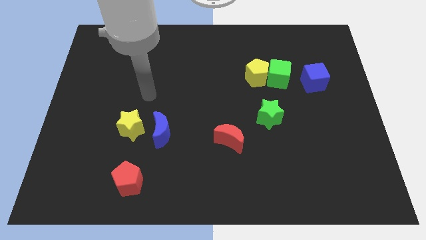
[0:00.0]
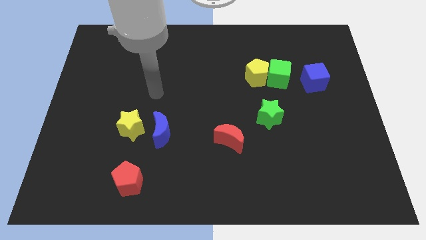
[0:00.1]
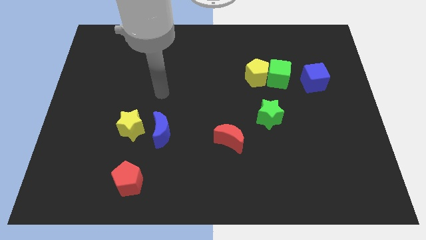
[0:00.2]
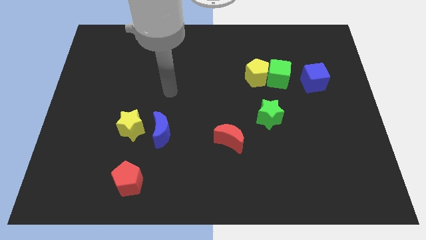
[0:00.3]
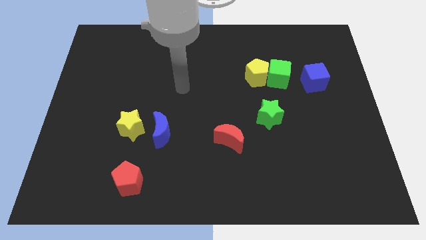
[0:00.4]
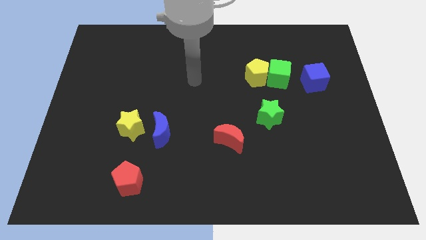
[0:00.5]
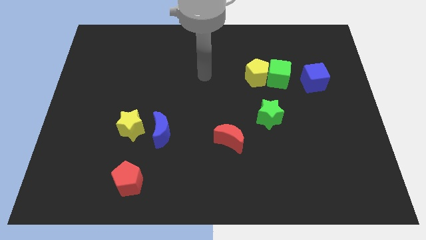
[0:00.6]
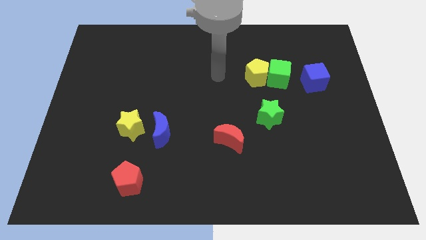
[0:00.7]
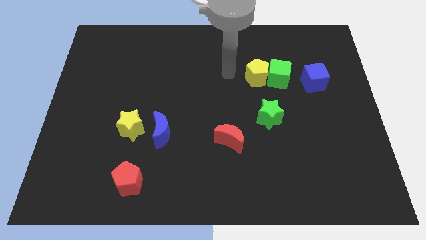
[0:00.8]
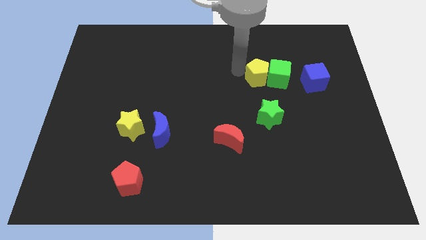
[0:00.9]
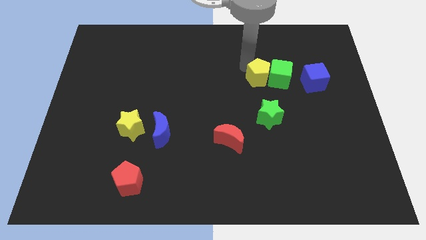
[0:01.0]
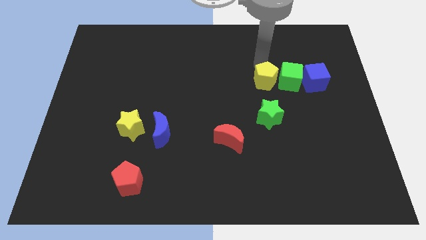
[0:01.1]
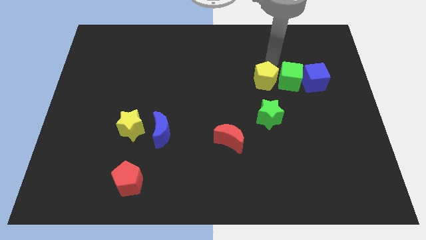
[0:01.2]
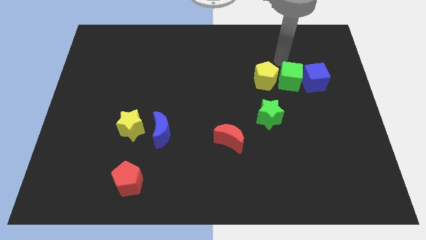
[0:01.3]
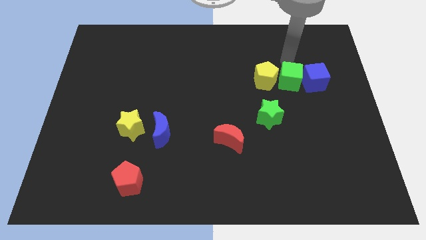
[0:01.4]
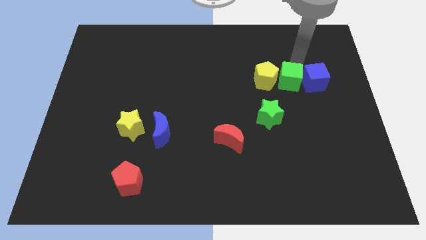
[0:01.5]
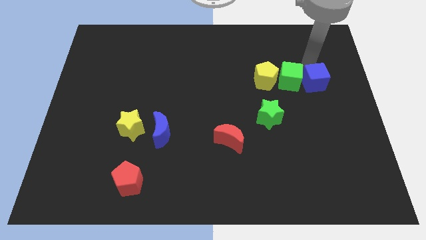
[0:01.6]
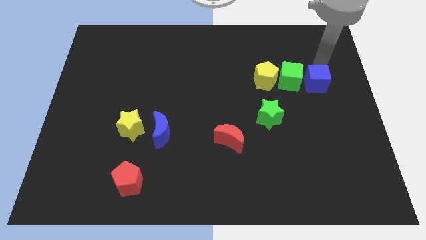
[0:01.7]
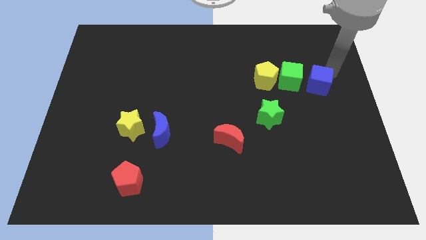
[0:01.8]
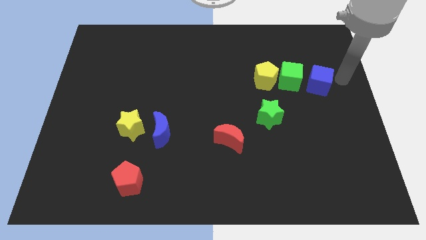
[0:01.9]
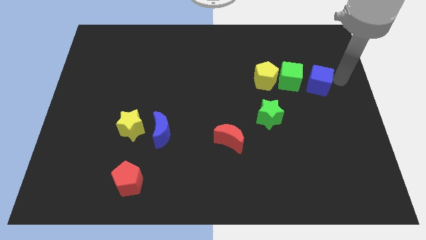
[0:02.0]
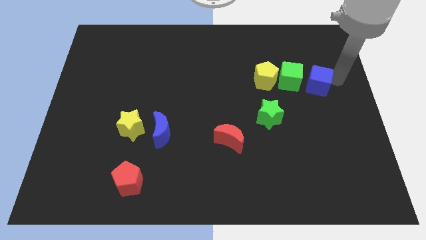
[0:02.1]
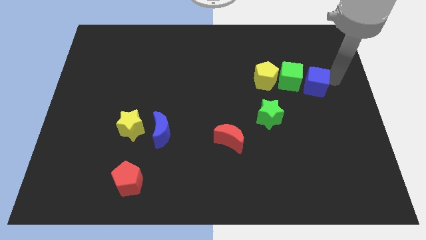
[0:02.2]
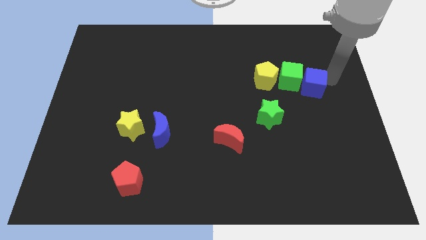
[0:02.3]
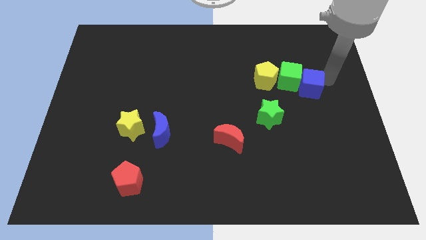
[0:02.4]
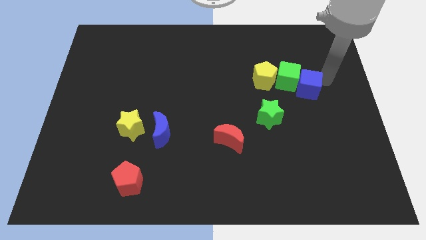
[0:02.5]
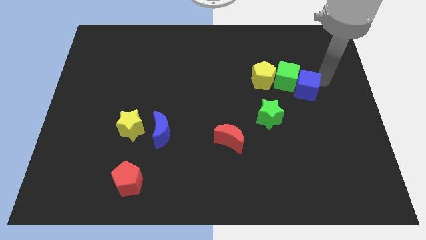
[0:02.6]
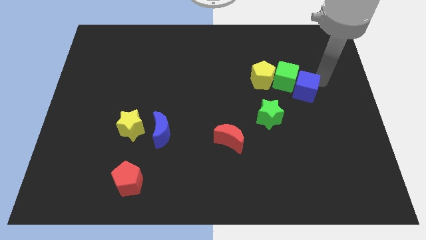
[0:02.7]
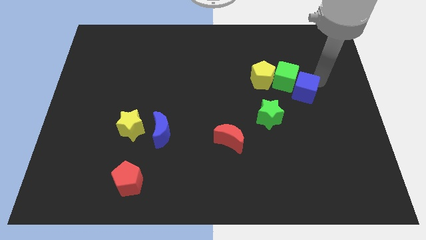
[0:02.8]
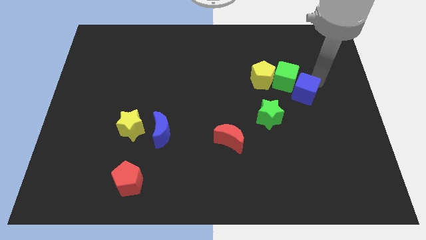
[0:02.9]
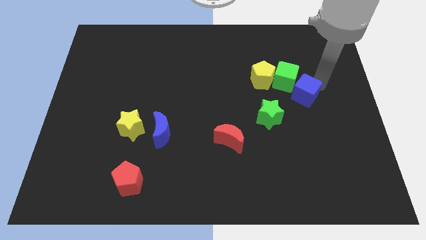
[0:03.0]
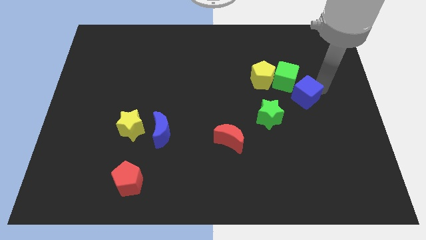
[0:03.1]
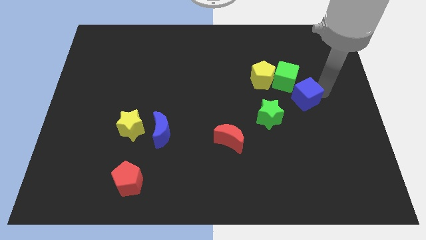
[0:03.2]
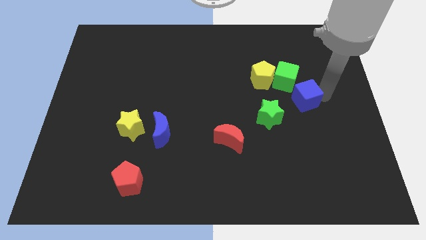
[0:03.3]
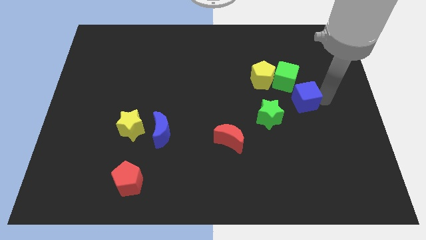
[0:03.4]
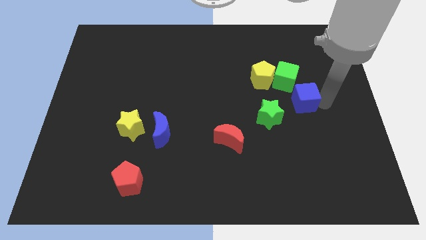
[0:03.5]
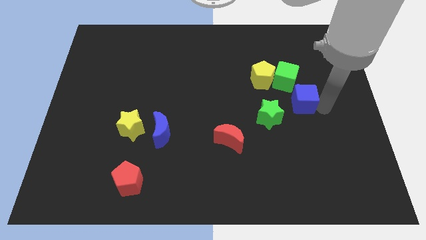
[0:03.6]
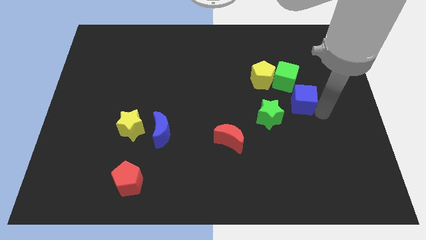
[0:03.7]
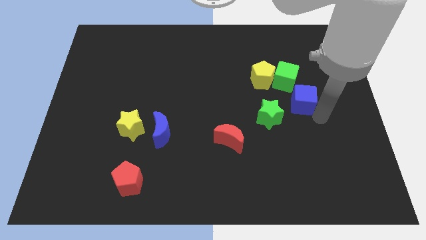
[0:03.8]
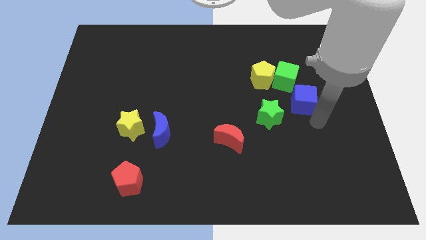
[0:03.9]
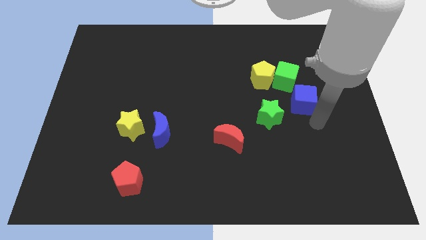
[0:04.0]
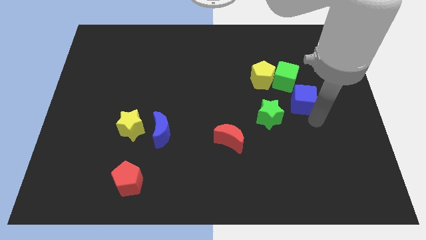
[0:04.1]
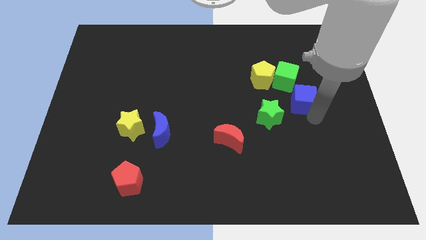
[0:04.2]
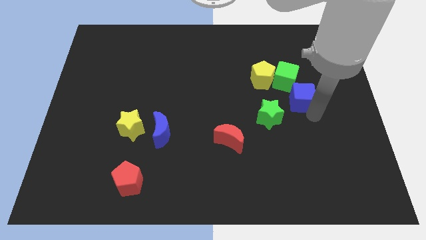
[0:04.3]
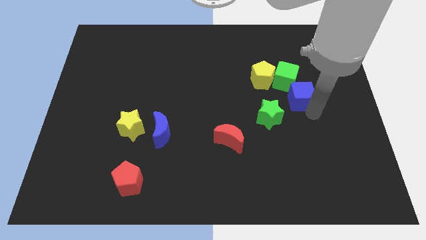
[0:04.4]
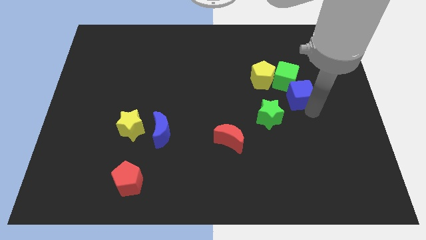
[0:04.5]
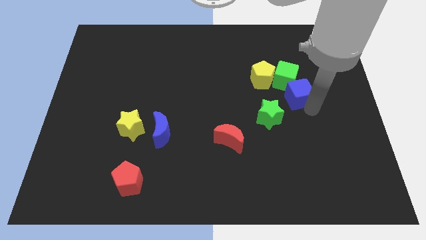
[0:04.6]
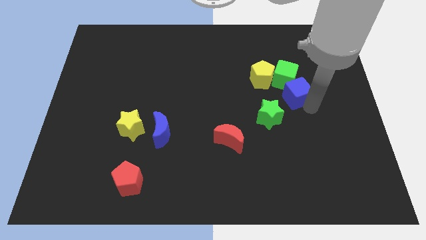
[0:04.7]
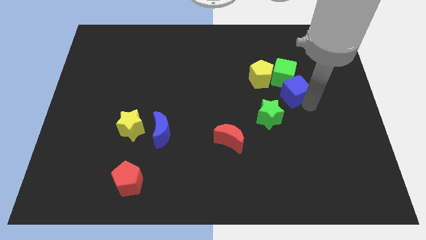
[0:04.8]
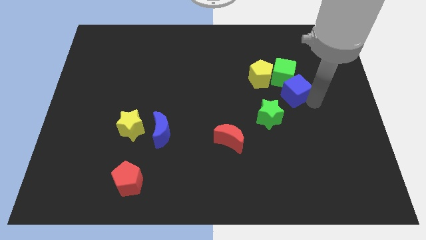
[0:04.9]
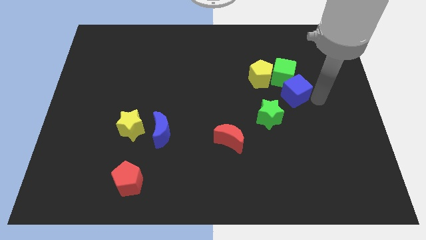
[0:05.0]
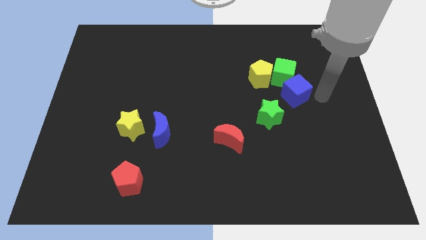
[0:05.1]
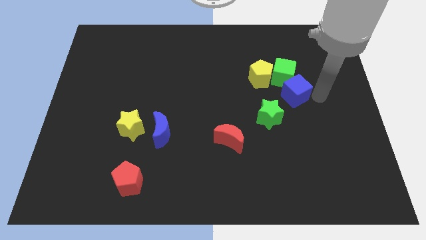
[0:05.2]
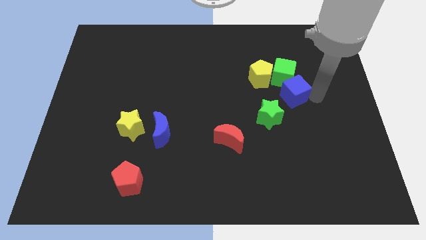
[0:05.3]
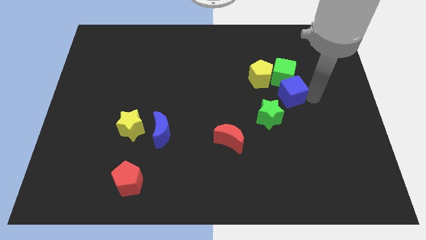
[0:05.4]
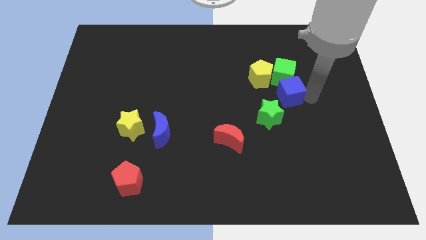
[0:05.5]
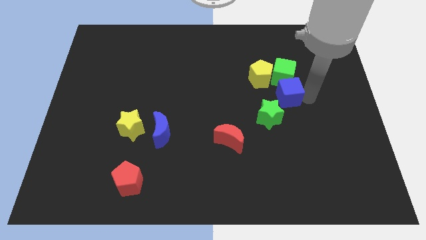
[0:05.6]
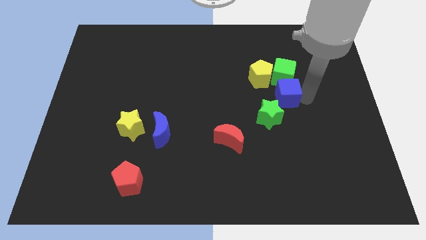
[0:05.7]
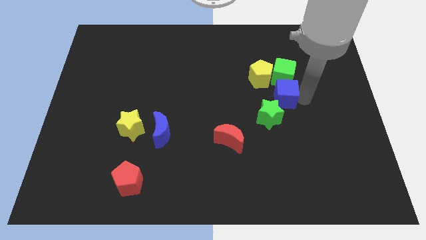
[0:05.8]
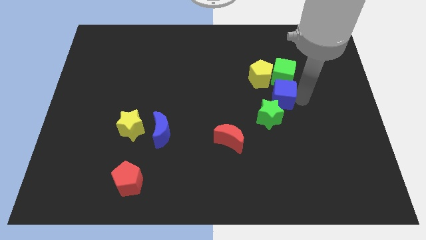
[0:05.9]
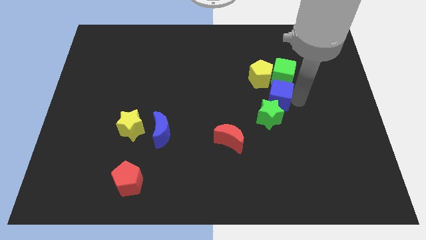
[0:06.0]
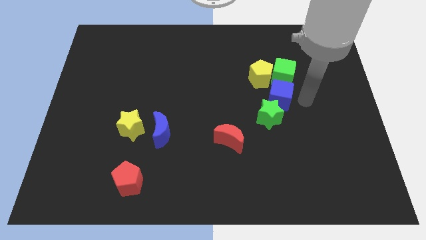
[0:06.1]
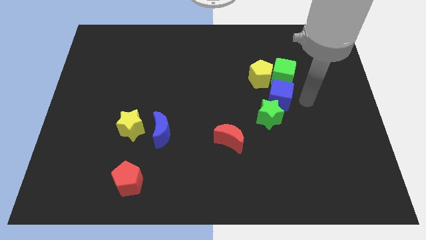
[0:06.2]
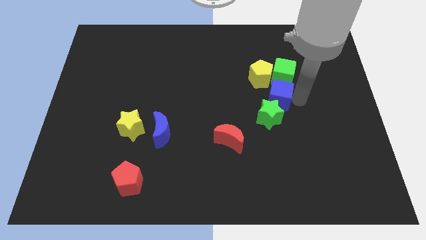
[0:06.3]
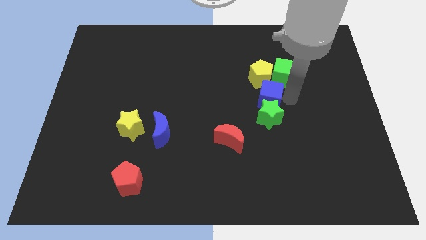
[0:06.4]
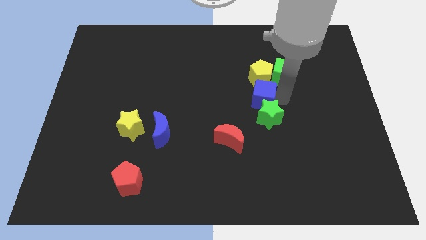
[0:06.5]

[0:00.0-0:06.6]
slide the blue cube to the center of the board
